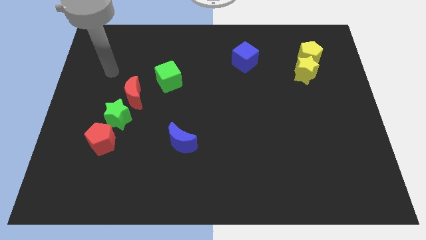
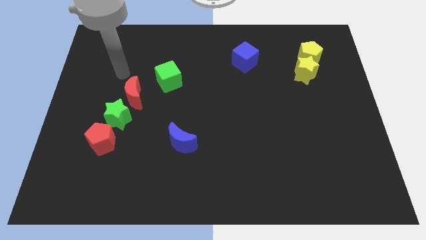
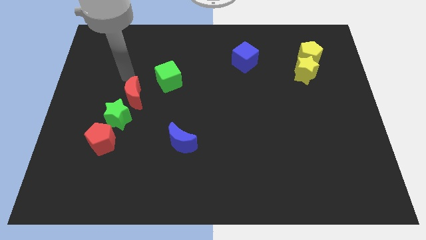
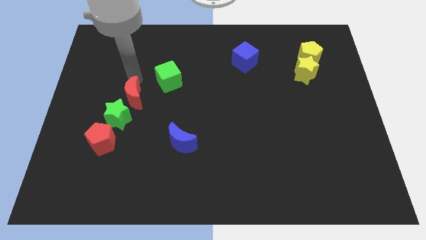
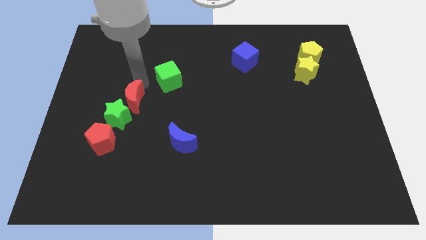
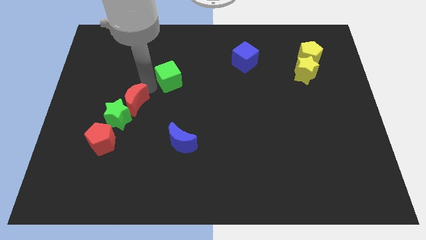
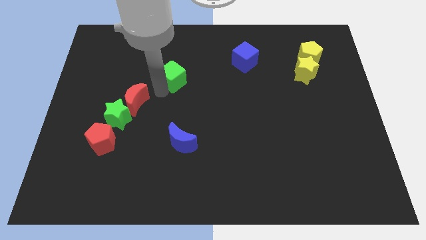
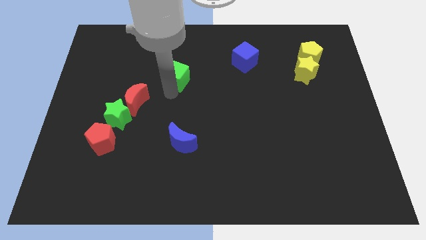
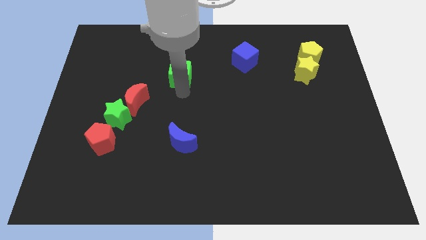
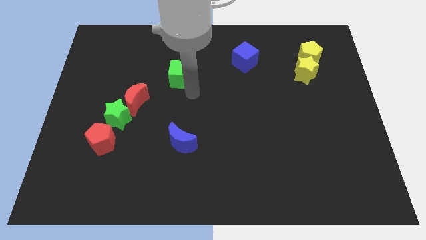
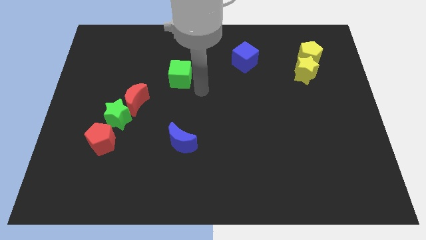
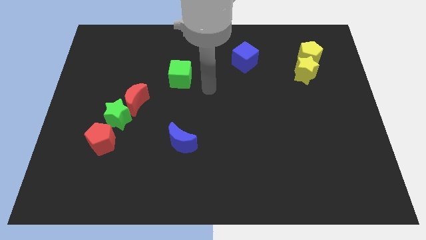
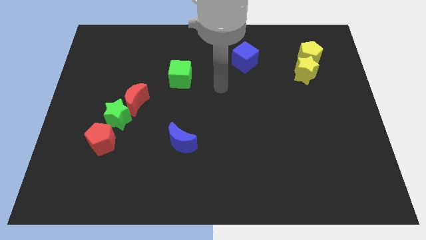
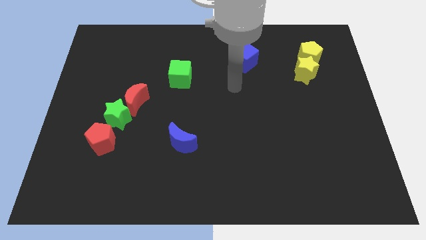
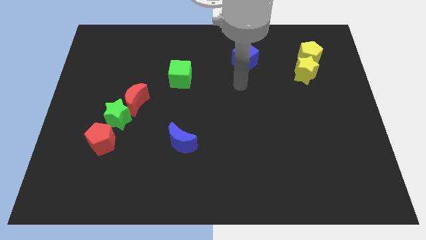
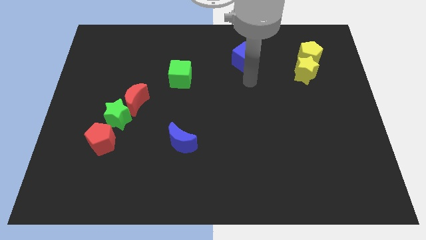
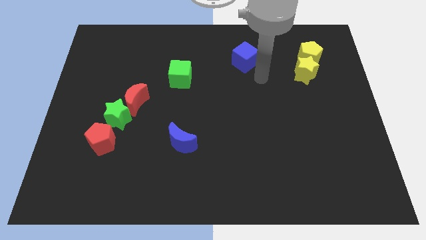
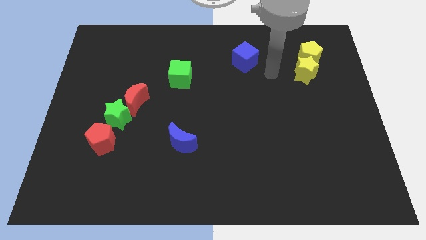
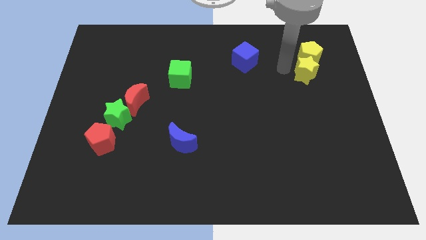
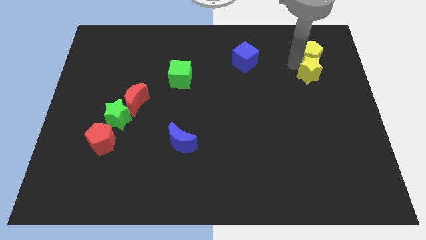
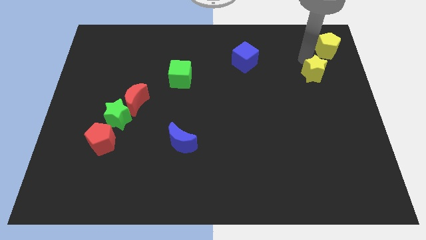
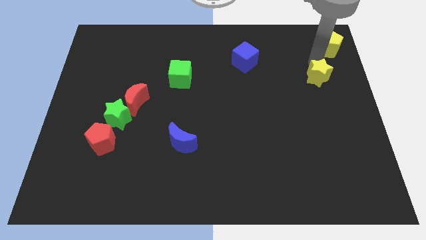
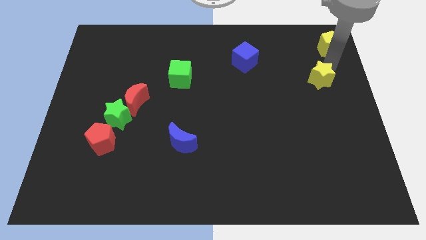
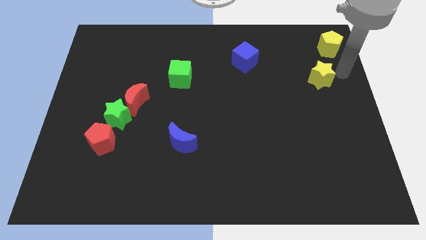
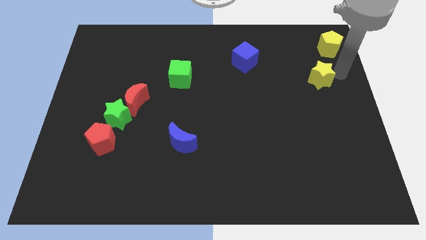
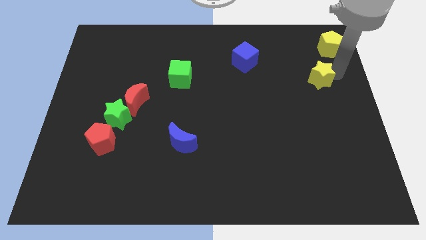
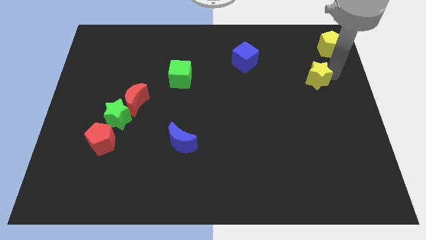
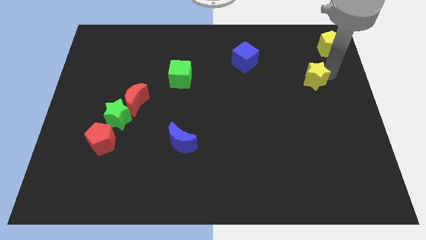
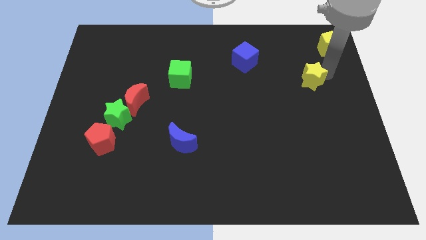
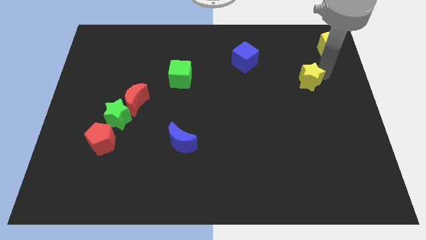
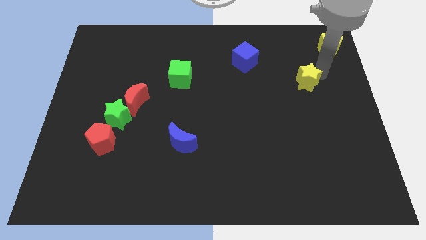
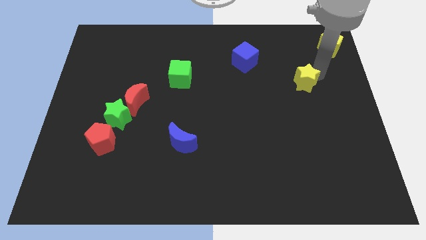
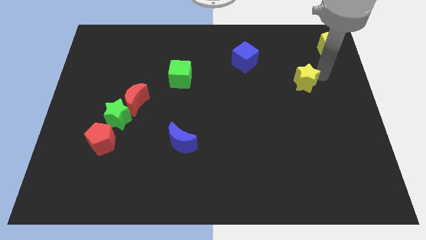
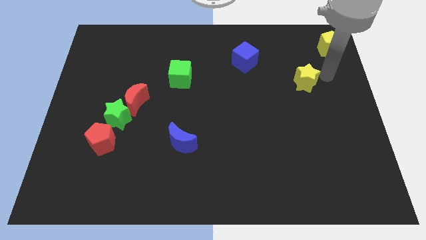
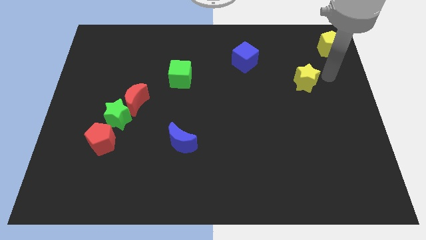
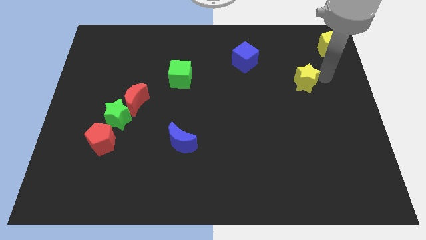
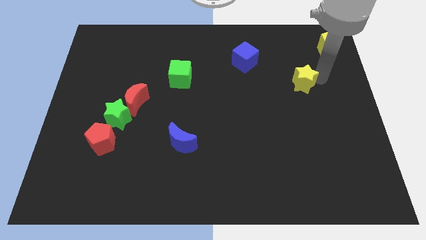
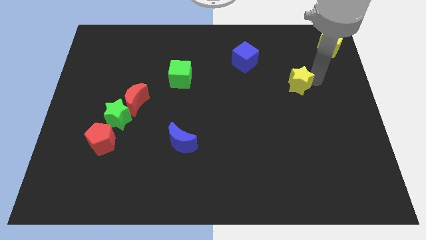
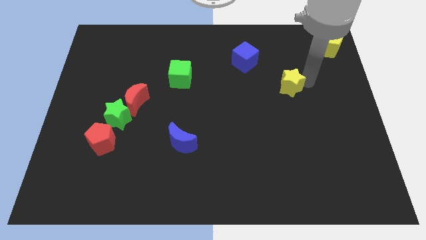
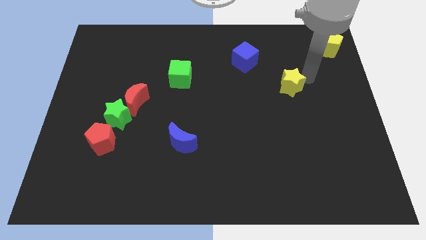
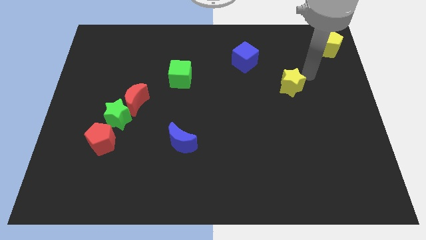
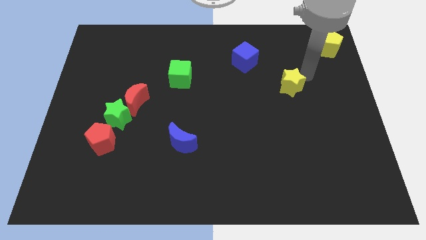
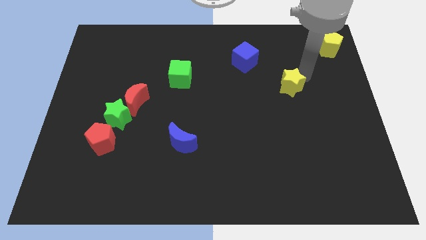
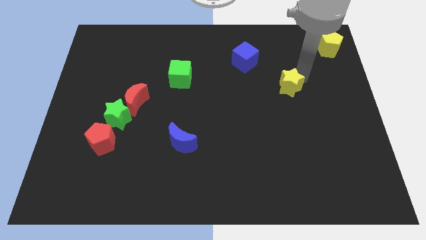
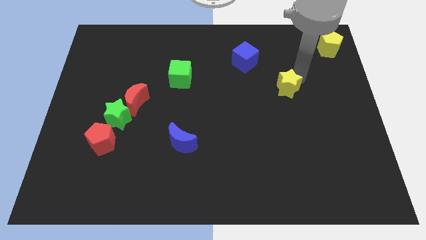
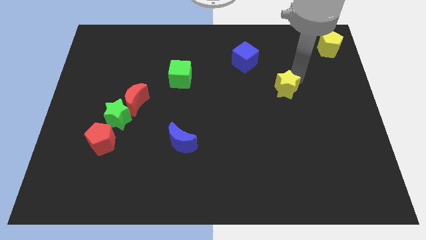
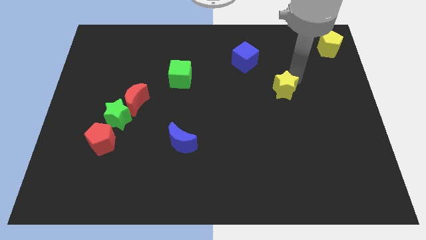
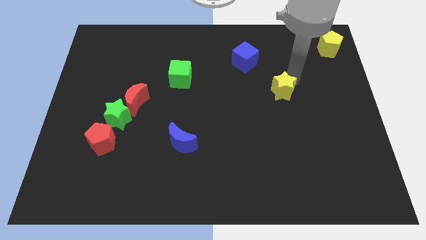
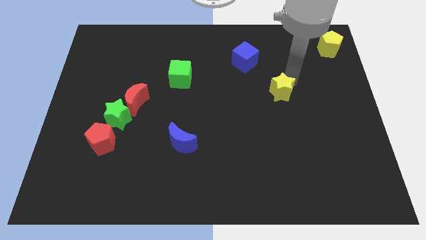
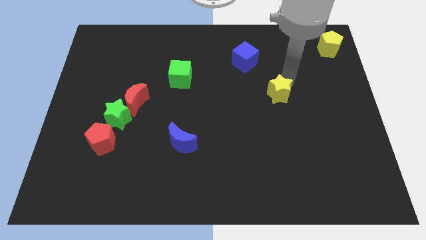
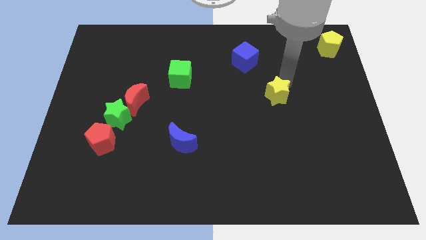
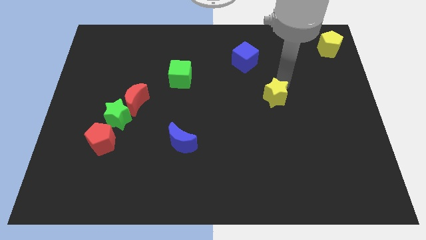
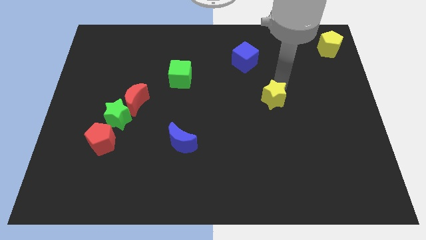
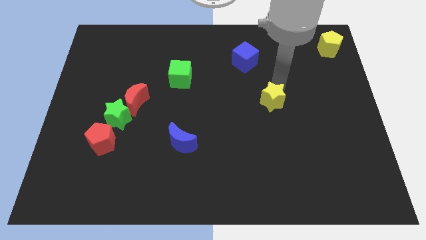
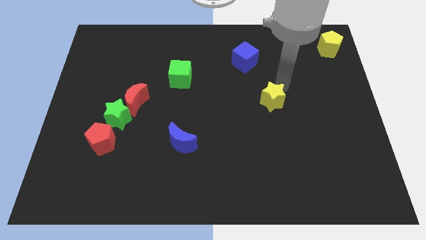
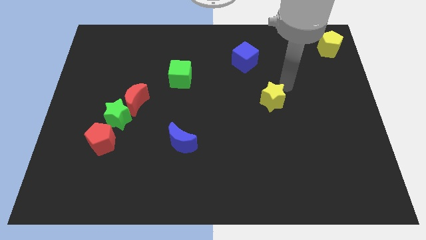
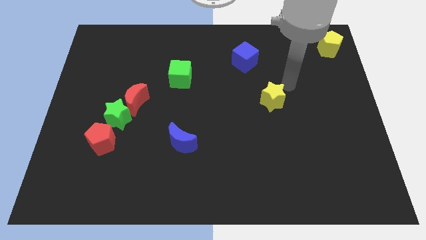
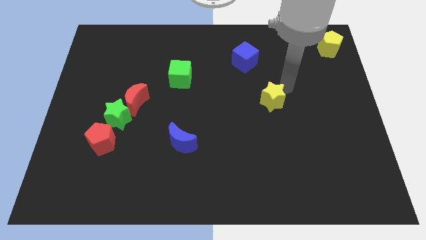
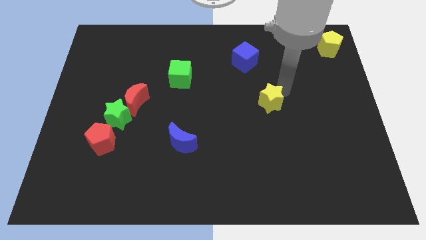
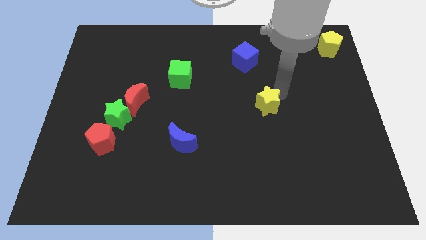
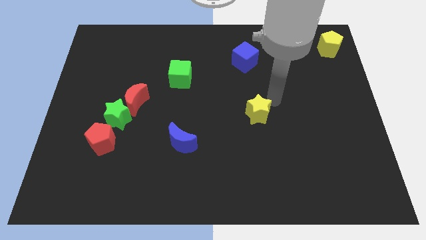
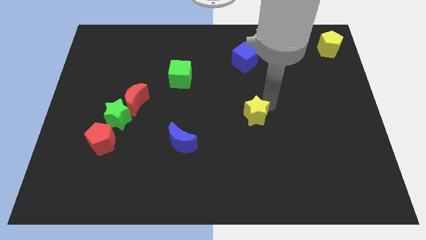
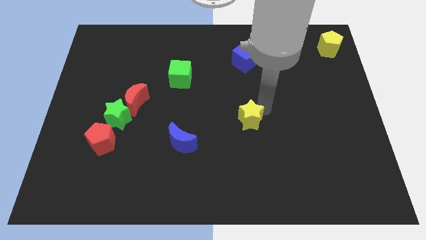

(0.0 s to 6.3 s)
push the yellow star diagonally down and left

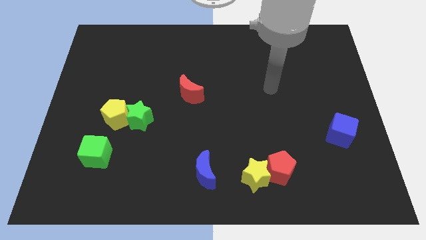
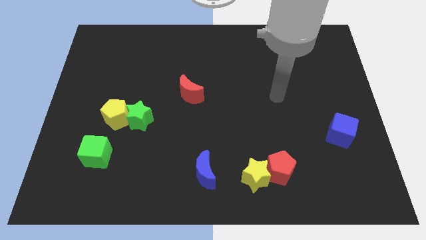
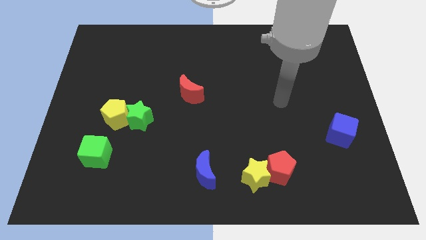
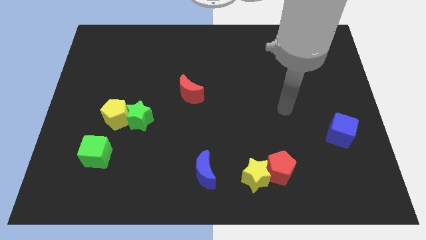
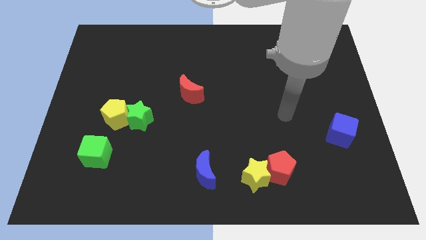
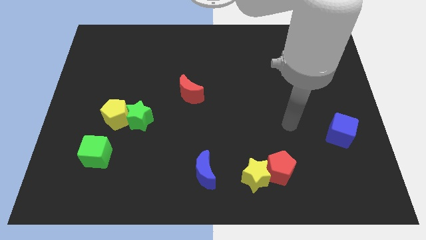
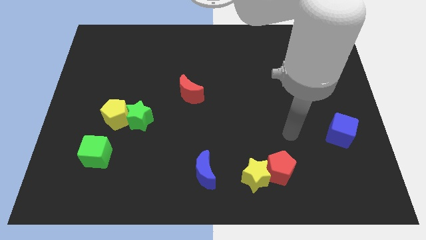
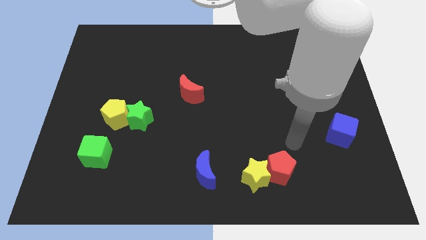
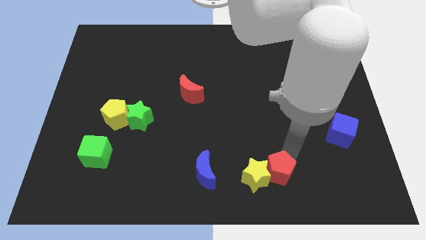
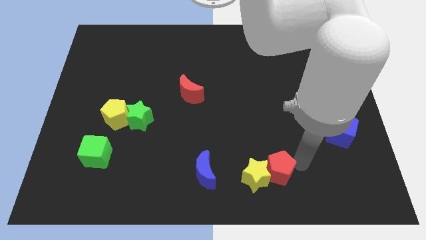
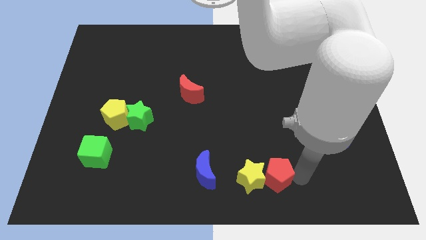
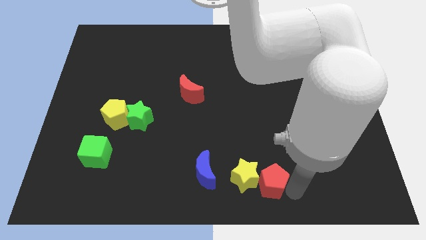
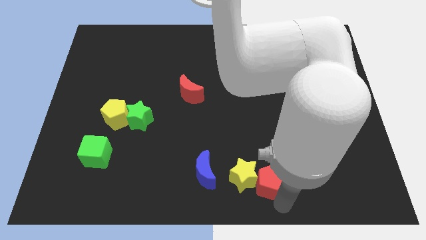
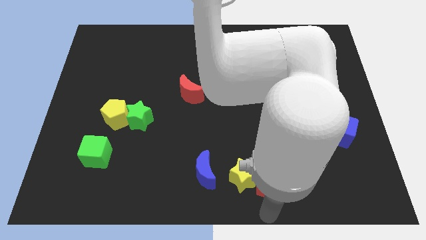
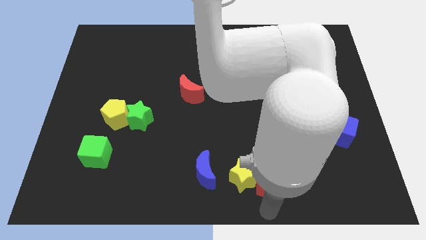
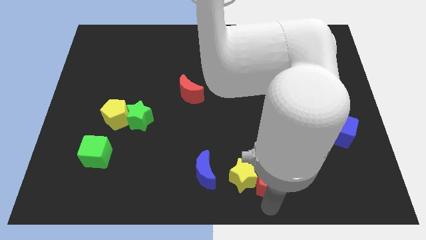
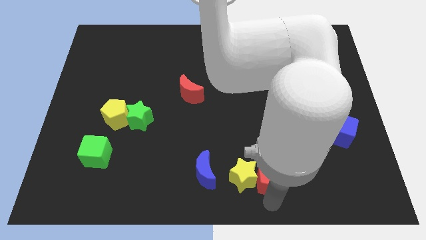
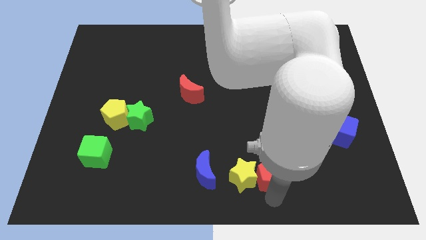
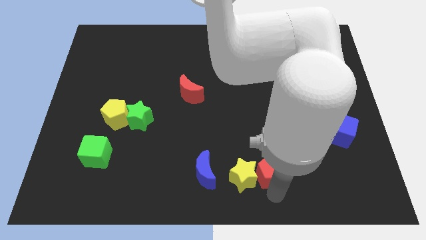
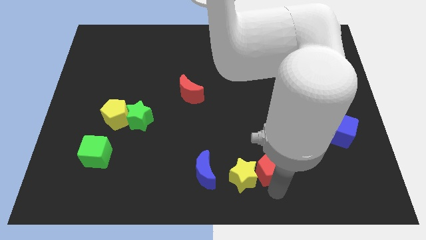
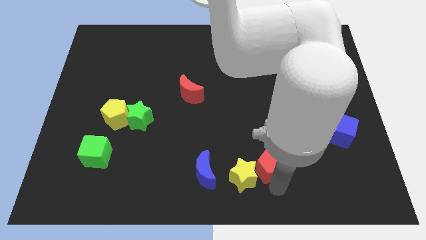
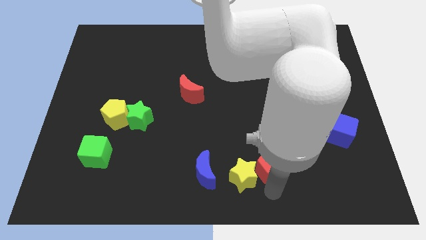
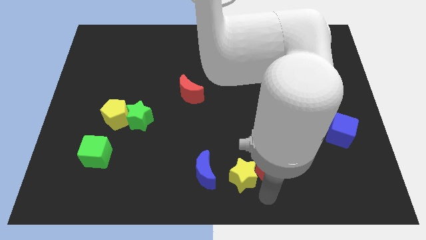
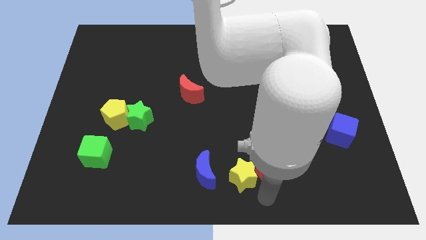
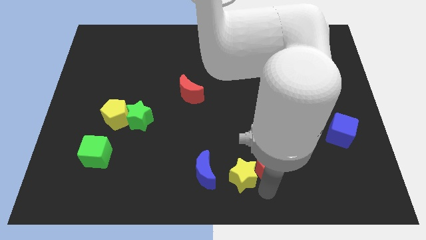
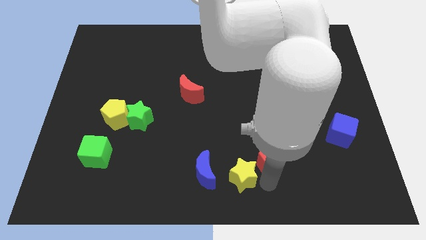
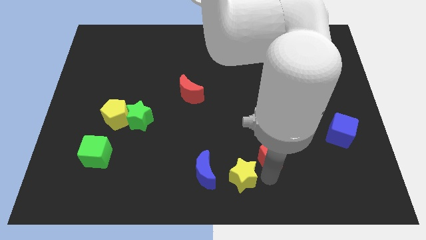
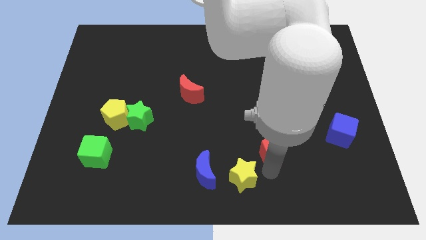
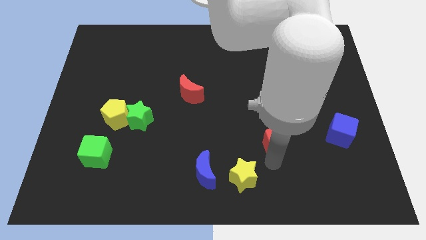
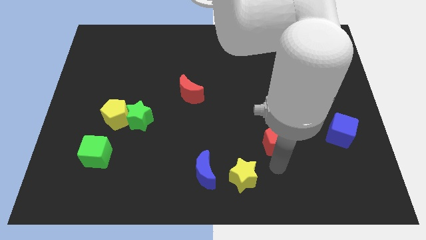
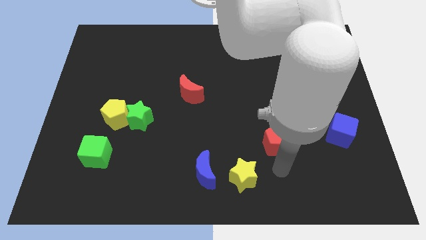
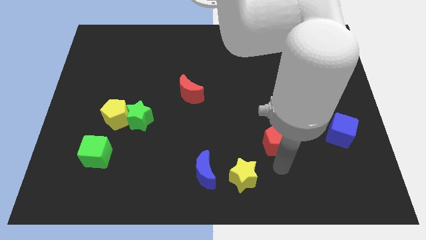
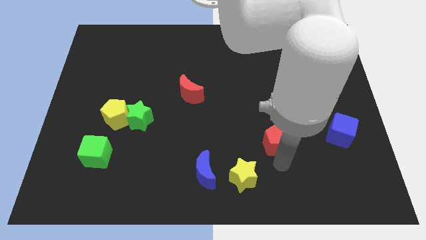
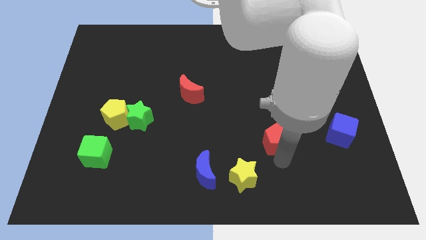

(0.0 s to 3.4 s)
push the red pentagon somewhat upwards
